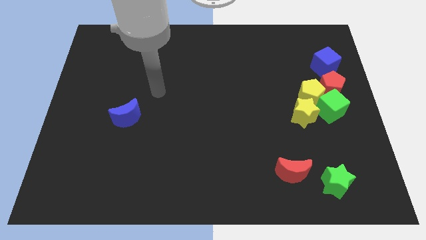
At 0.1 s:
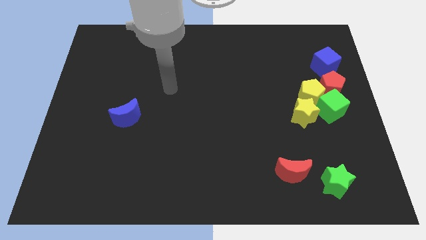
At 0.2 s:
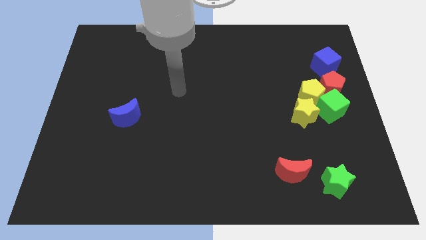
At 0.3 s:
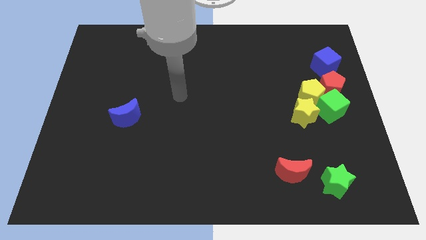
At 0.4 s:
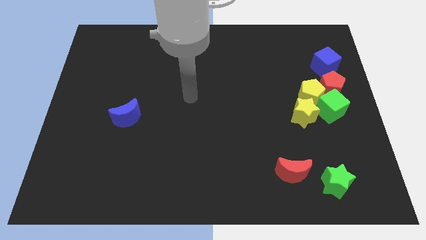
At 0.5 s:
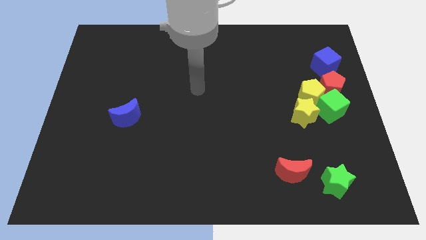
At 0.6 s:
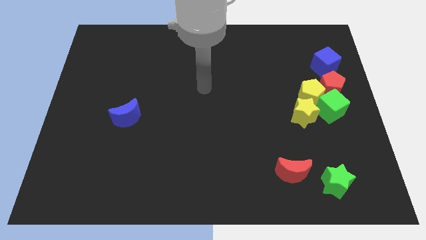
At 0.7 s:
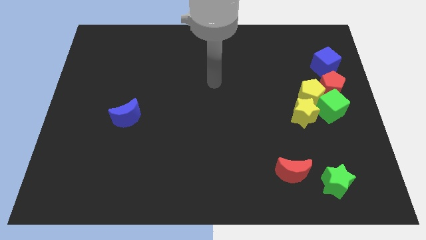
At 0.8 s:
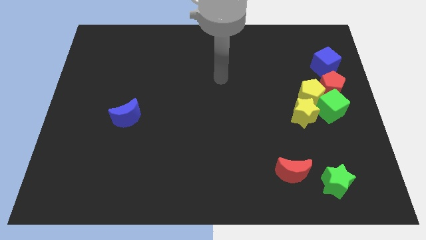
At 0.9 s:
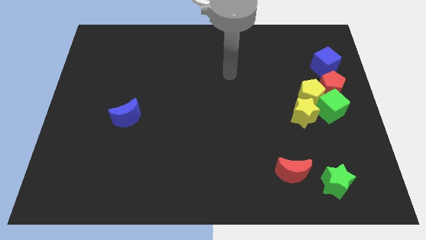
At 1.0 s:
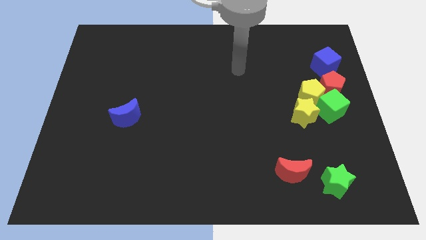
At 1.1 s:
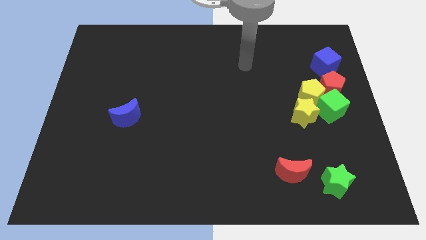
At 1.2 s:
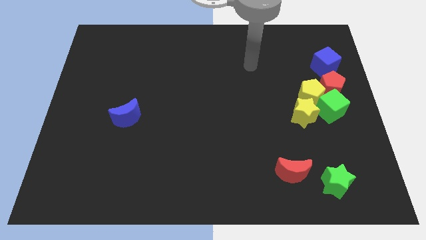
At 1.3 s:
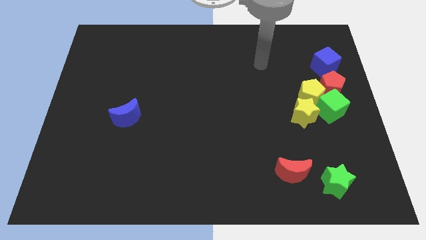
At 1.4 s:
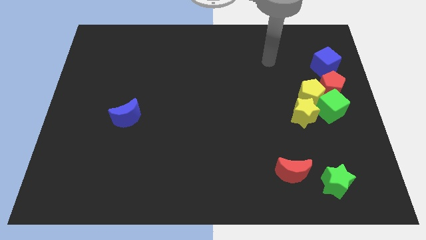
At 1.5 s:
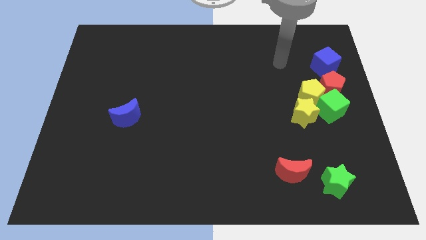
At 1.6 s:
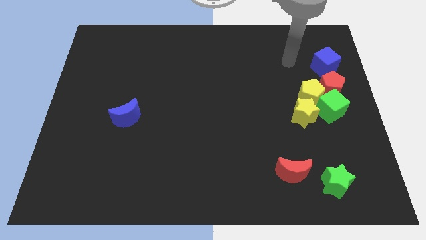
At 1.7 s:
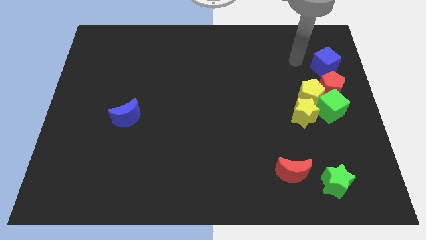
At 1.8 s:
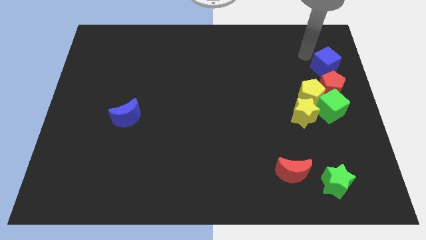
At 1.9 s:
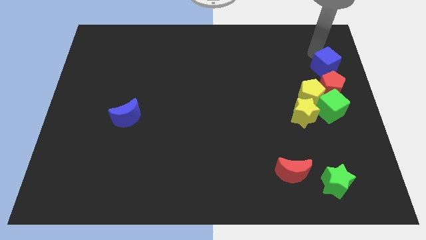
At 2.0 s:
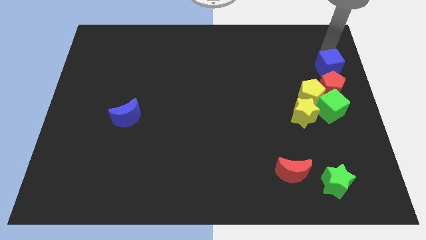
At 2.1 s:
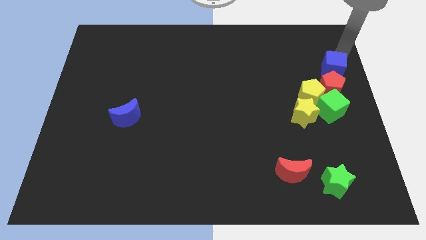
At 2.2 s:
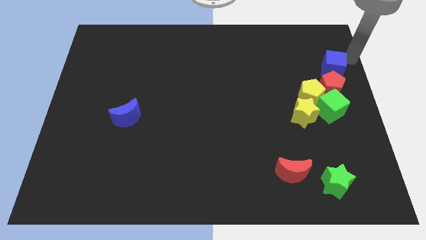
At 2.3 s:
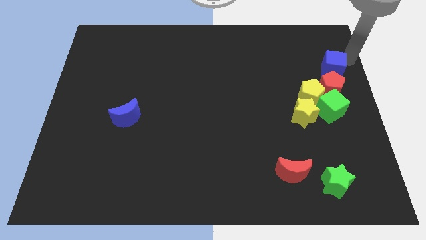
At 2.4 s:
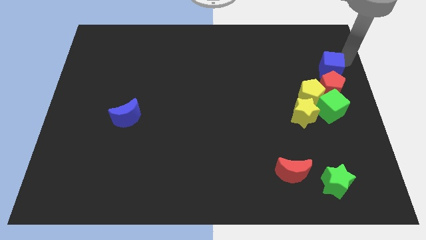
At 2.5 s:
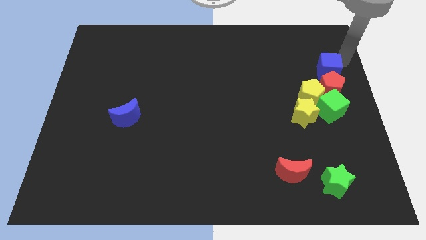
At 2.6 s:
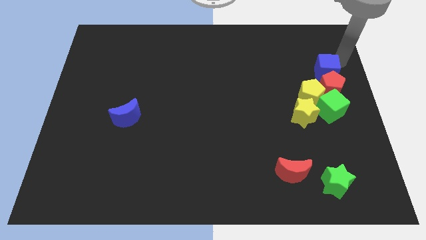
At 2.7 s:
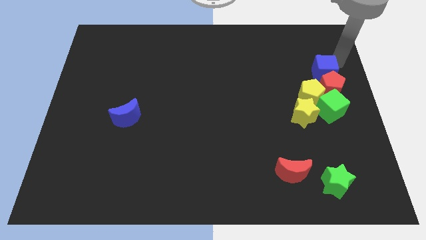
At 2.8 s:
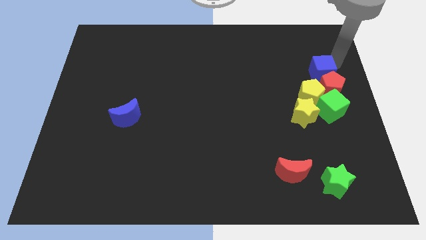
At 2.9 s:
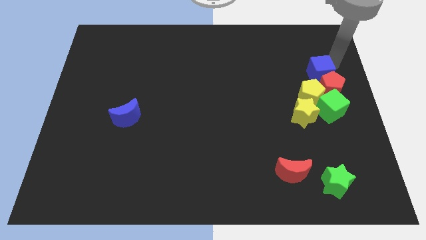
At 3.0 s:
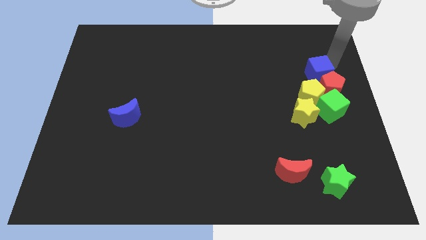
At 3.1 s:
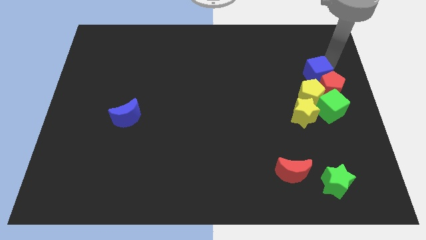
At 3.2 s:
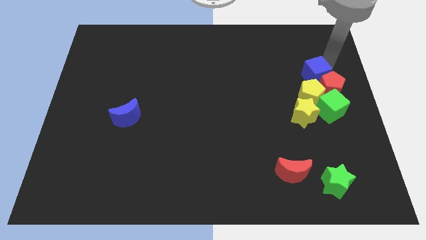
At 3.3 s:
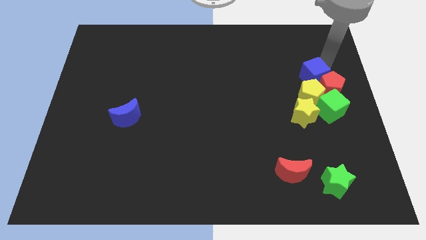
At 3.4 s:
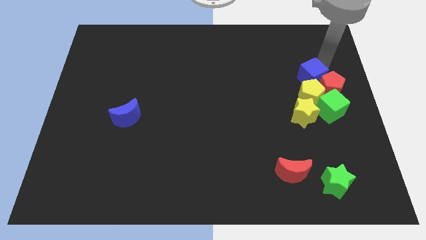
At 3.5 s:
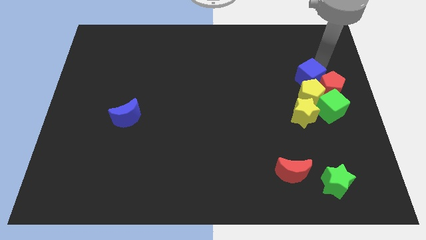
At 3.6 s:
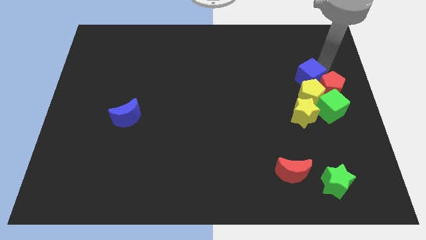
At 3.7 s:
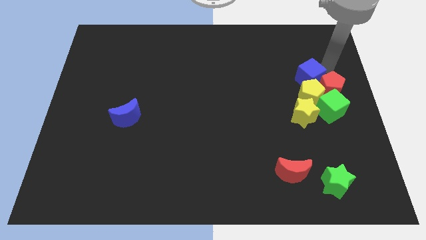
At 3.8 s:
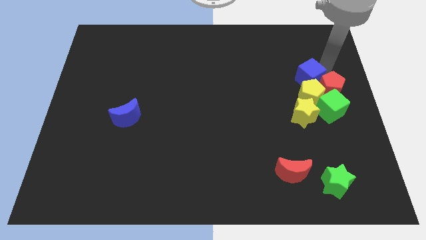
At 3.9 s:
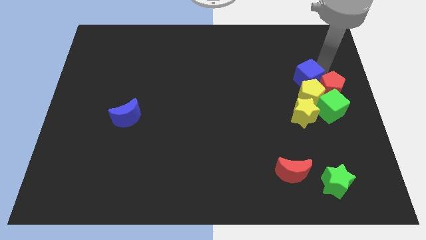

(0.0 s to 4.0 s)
slightly slide the blue cube down and then left

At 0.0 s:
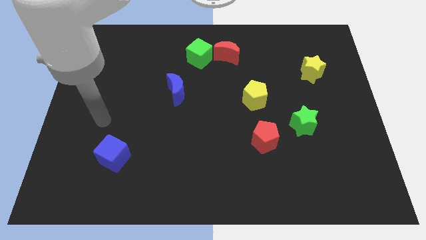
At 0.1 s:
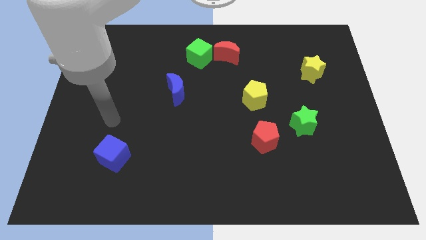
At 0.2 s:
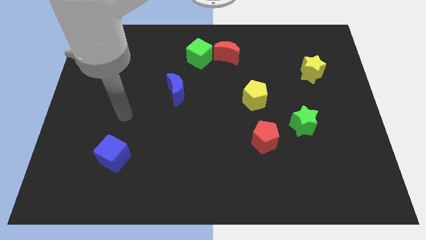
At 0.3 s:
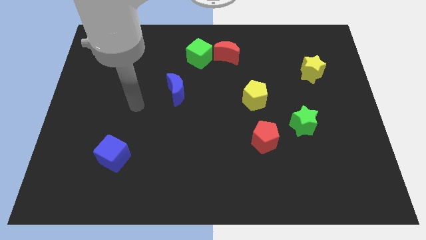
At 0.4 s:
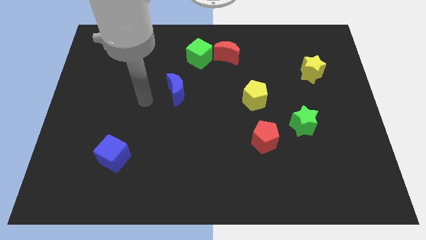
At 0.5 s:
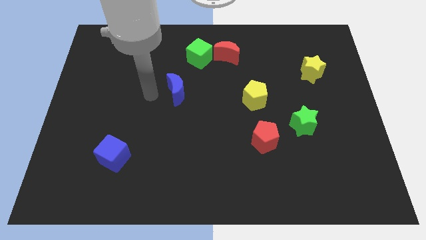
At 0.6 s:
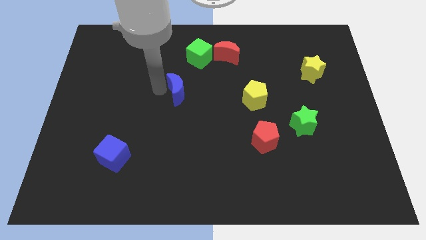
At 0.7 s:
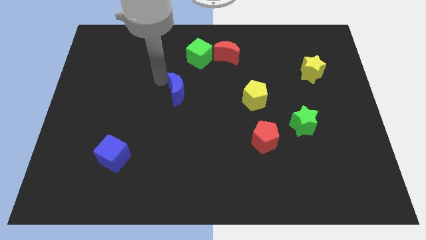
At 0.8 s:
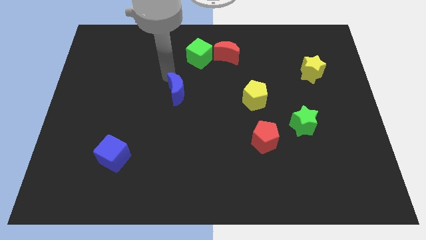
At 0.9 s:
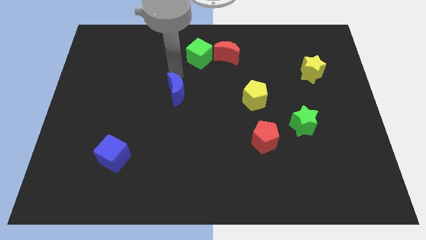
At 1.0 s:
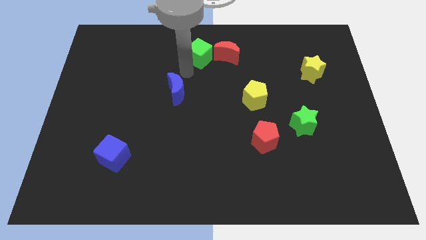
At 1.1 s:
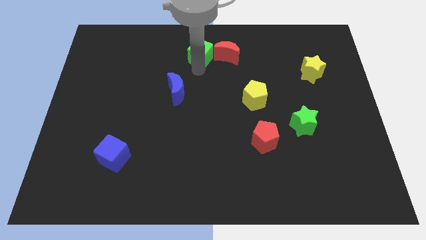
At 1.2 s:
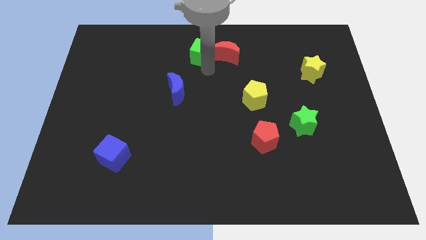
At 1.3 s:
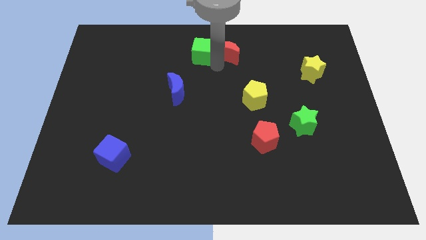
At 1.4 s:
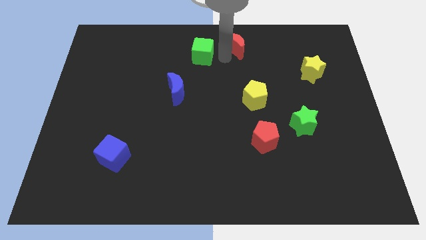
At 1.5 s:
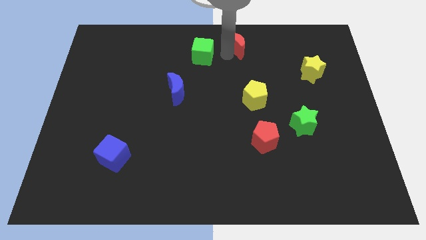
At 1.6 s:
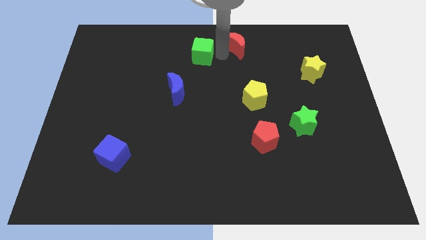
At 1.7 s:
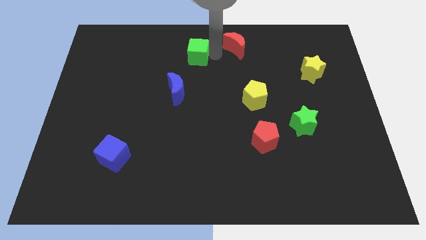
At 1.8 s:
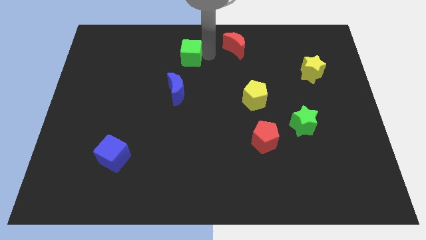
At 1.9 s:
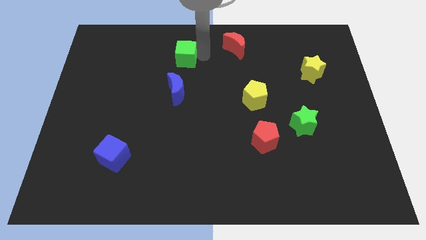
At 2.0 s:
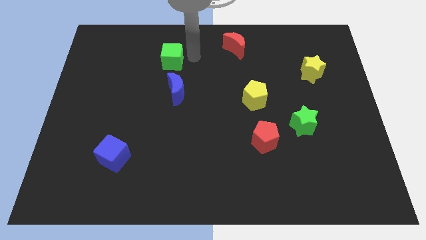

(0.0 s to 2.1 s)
move the green cube to the left a little

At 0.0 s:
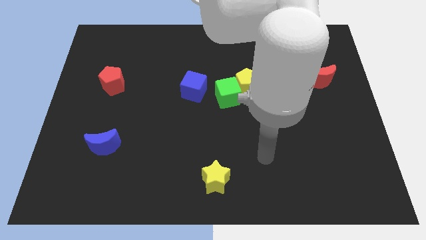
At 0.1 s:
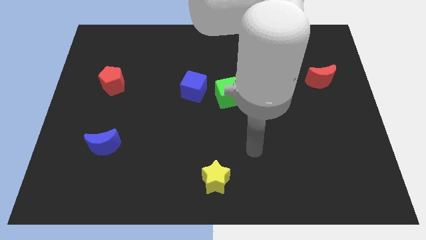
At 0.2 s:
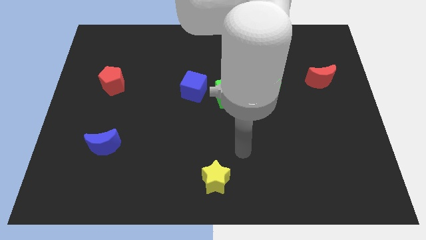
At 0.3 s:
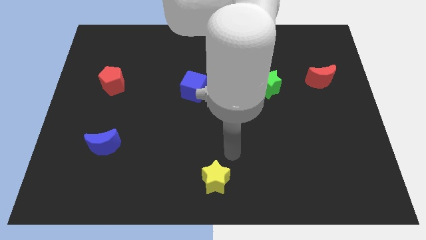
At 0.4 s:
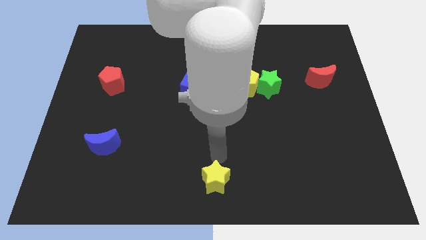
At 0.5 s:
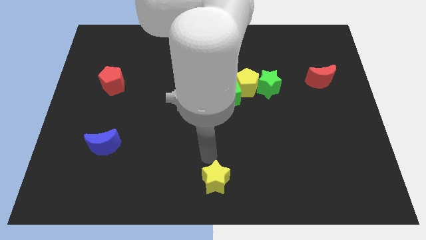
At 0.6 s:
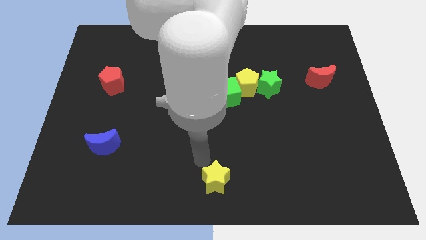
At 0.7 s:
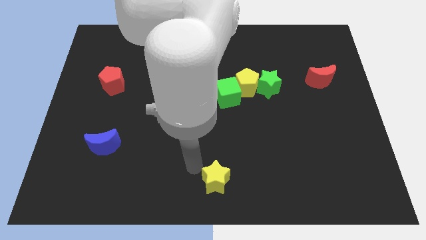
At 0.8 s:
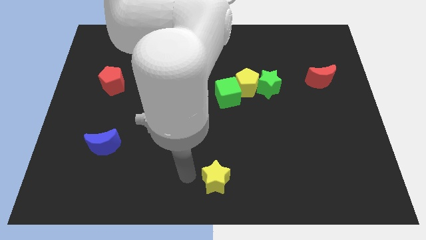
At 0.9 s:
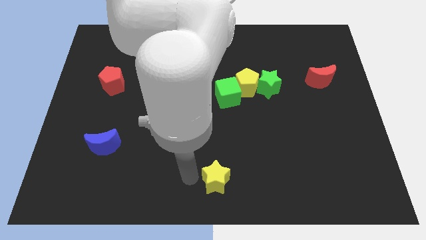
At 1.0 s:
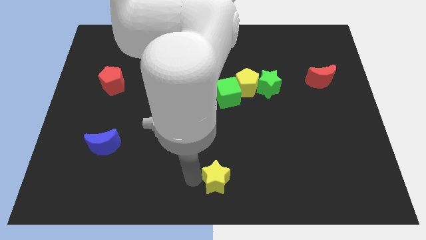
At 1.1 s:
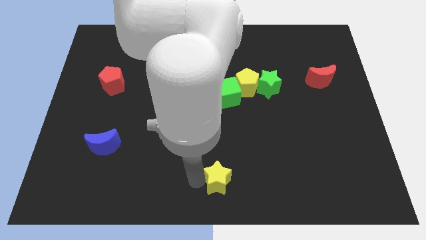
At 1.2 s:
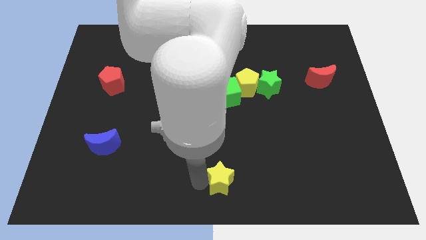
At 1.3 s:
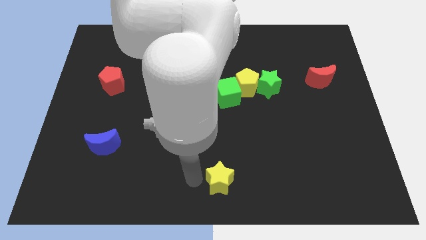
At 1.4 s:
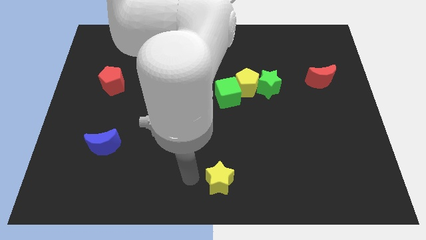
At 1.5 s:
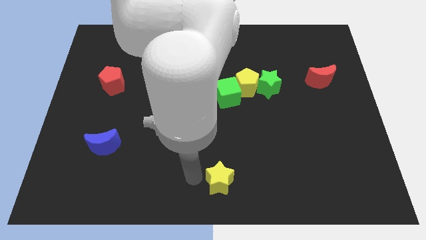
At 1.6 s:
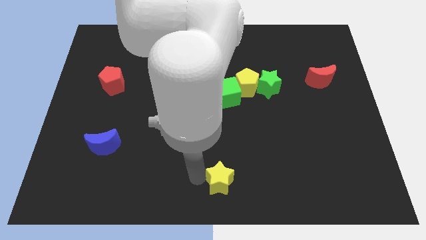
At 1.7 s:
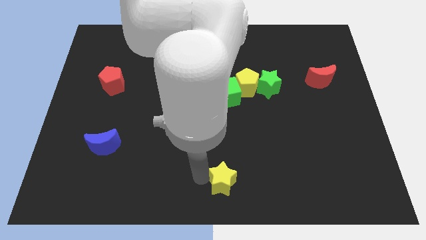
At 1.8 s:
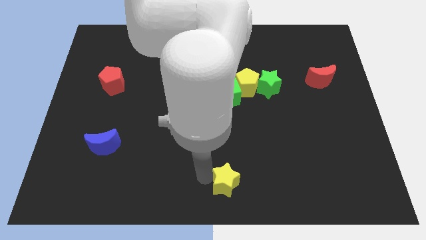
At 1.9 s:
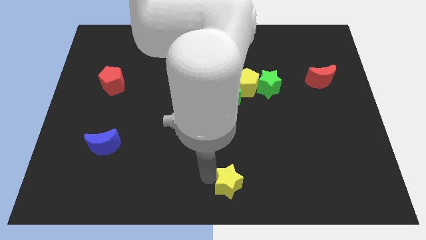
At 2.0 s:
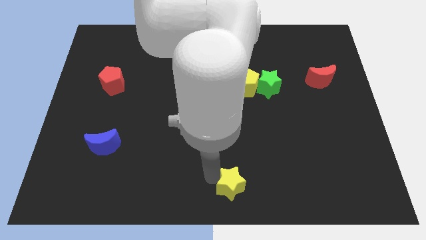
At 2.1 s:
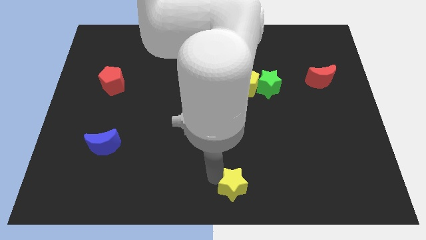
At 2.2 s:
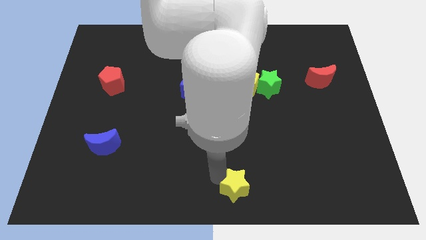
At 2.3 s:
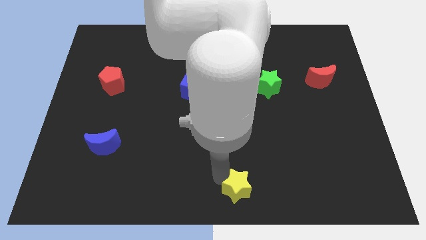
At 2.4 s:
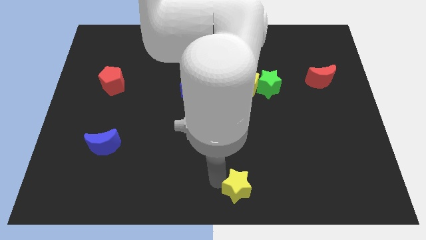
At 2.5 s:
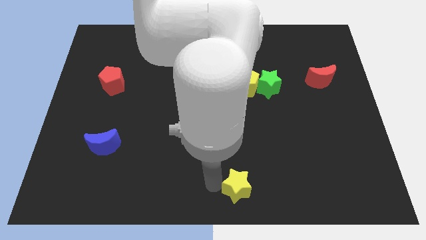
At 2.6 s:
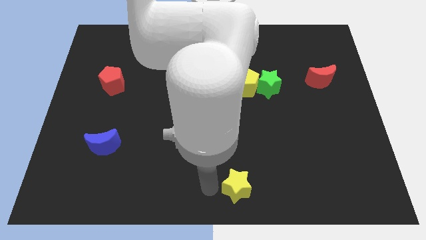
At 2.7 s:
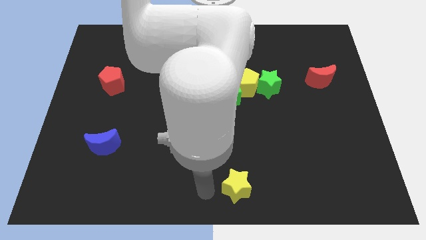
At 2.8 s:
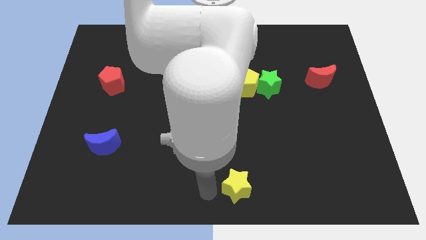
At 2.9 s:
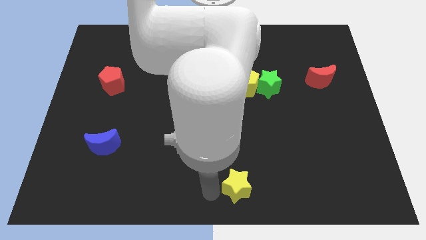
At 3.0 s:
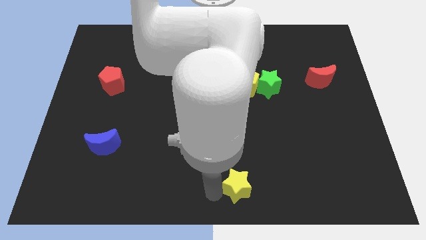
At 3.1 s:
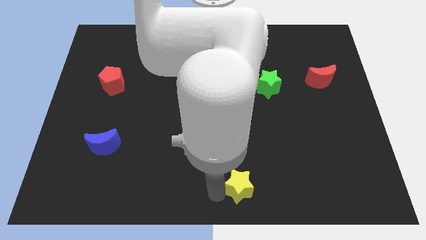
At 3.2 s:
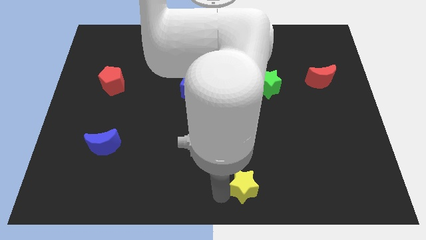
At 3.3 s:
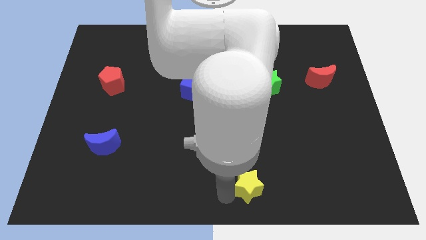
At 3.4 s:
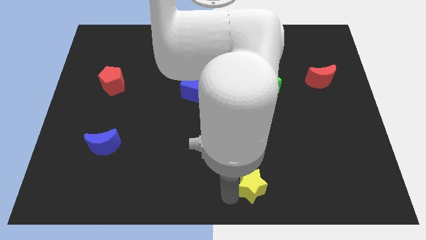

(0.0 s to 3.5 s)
move the yellow star to the right a bit
